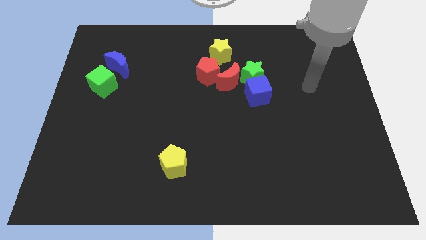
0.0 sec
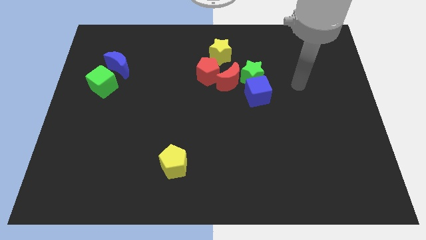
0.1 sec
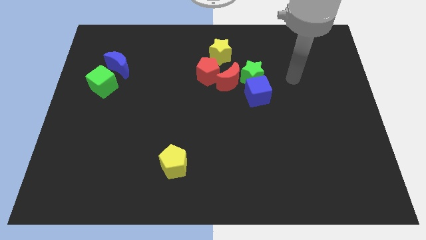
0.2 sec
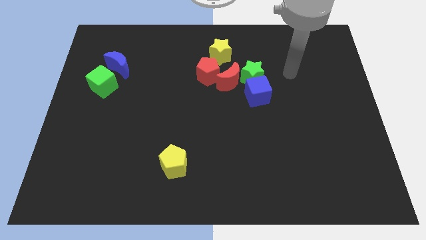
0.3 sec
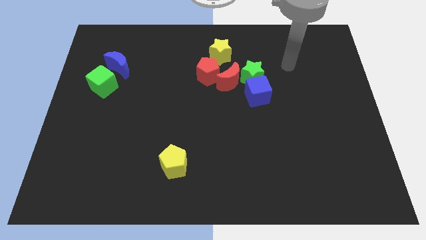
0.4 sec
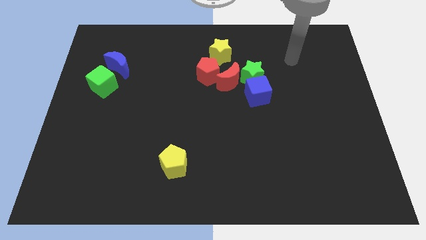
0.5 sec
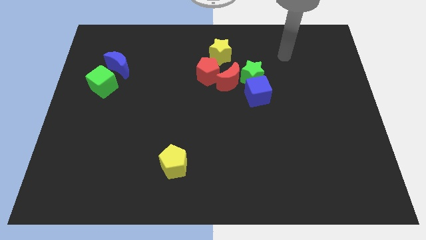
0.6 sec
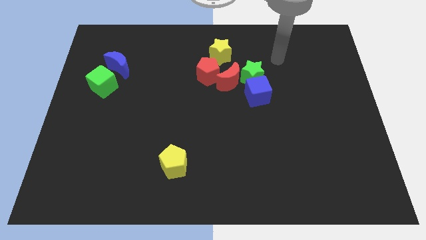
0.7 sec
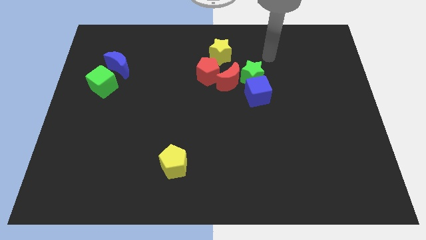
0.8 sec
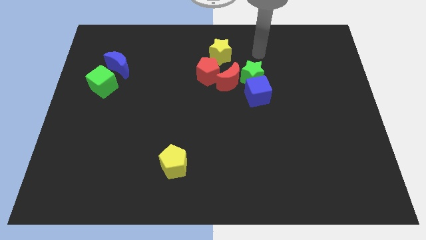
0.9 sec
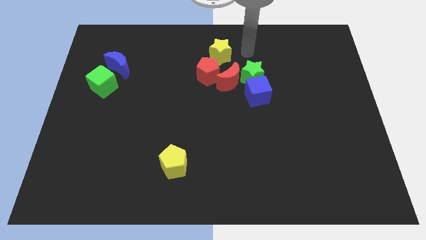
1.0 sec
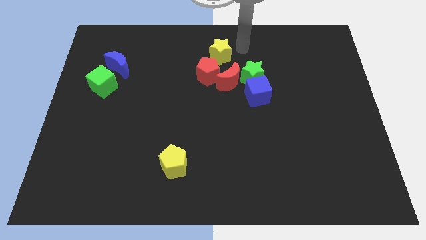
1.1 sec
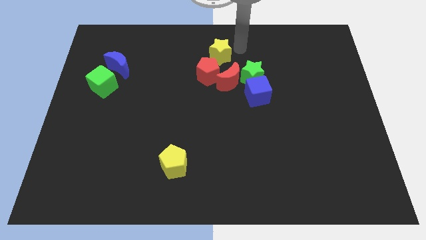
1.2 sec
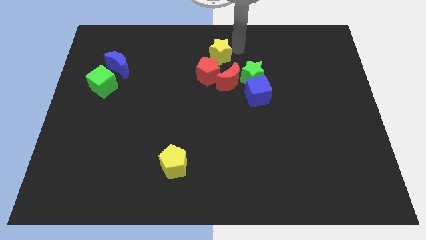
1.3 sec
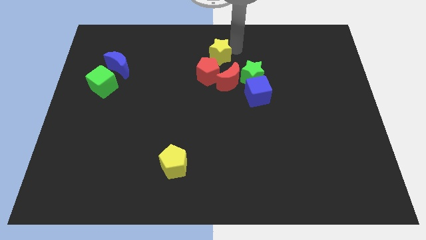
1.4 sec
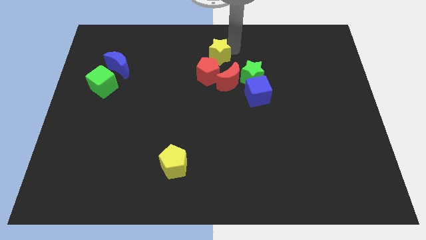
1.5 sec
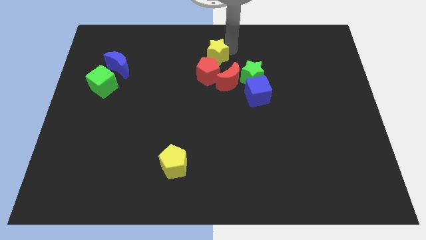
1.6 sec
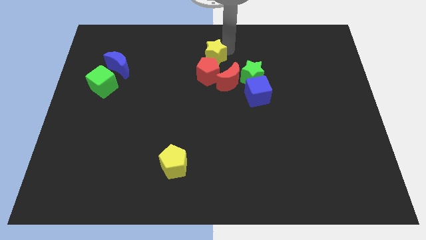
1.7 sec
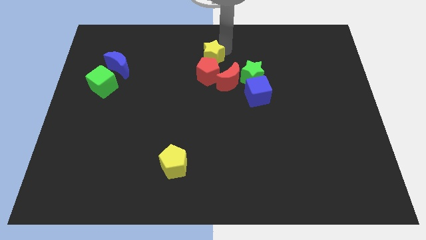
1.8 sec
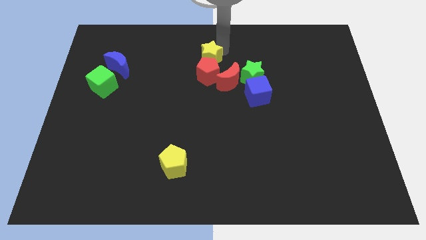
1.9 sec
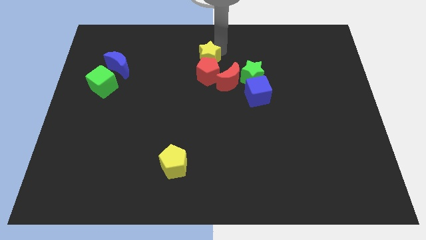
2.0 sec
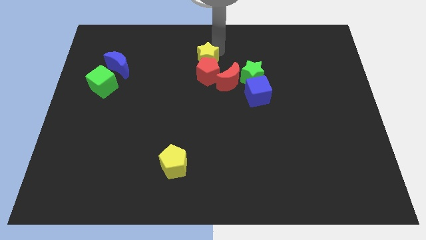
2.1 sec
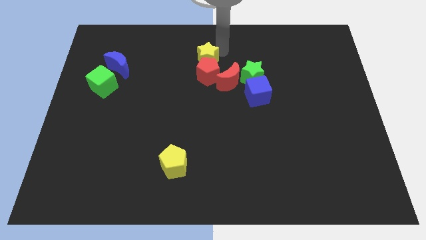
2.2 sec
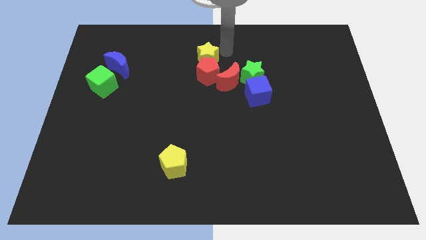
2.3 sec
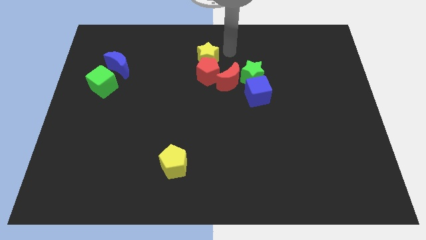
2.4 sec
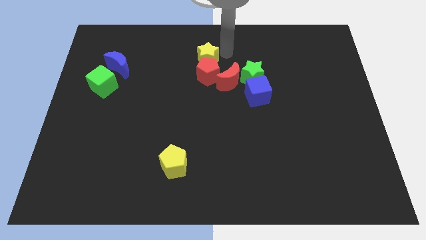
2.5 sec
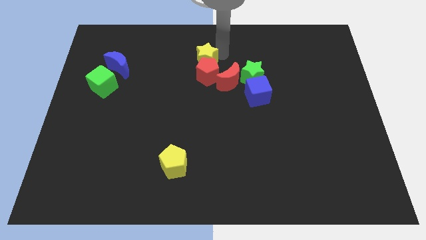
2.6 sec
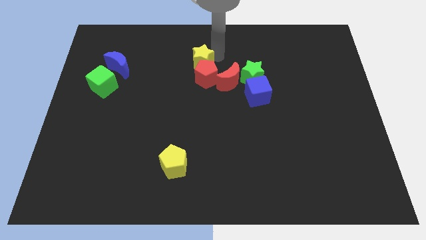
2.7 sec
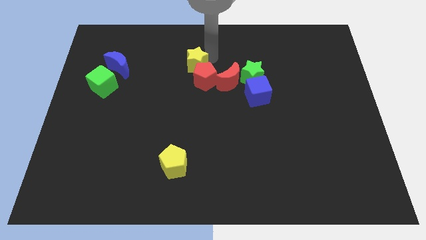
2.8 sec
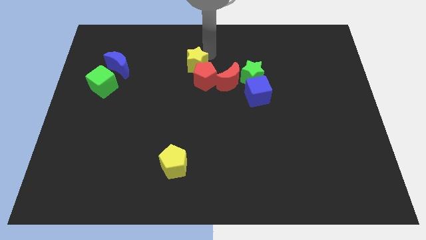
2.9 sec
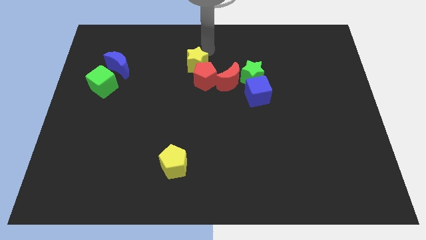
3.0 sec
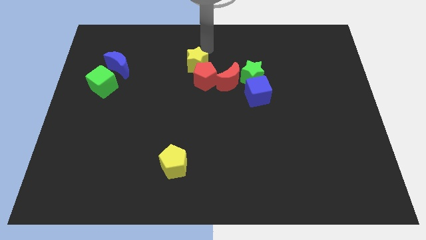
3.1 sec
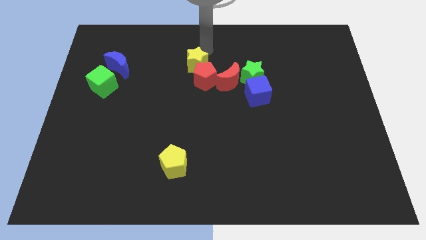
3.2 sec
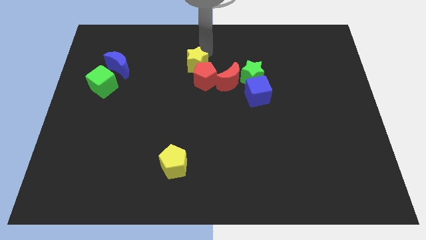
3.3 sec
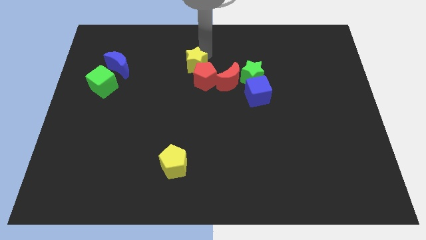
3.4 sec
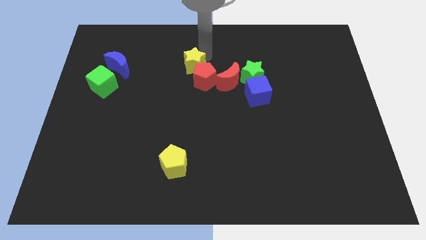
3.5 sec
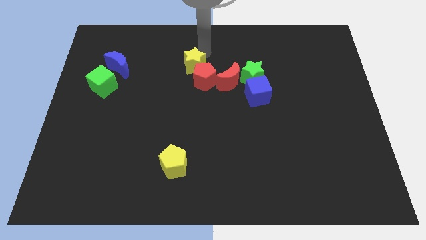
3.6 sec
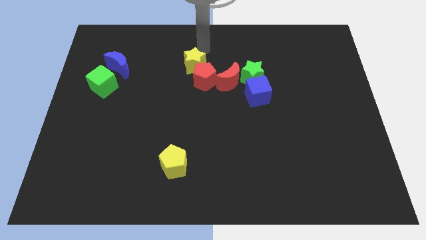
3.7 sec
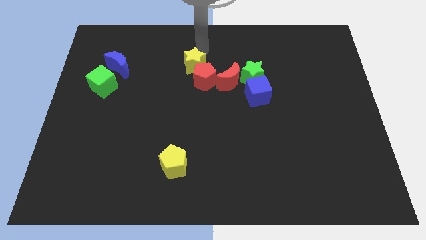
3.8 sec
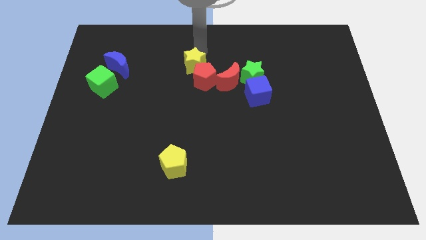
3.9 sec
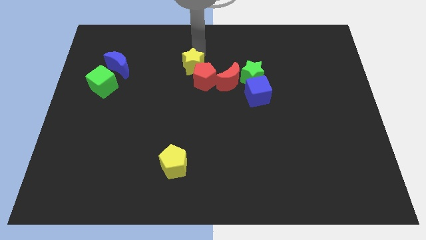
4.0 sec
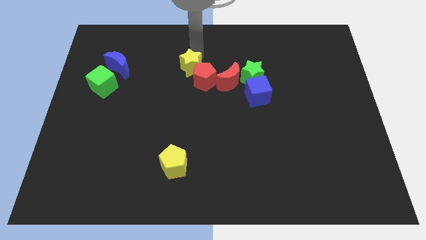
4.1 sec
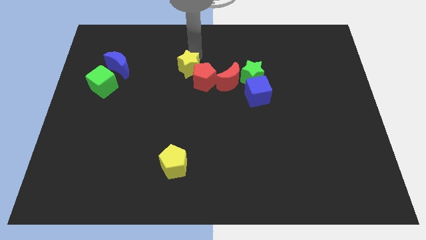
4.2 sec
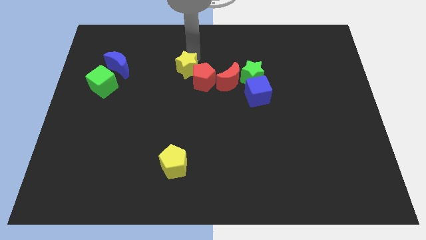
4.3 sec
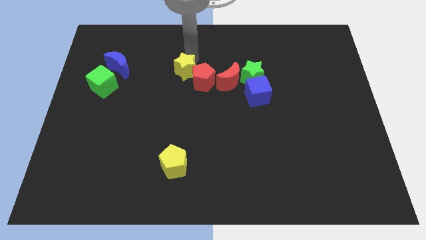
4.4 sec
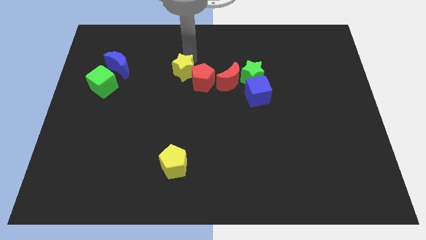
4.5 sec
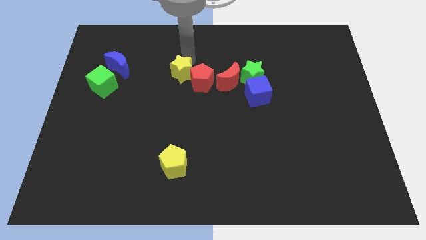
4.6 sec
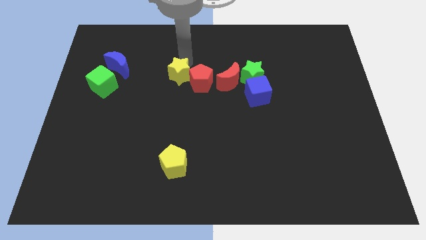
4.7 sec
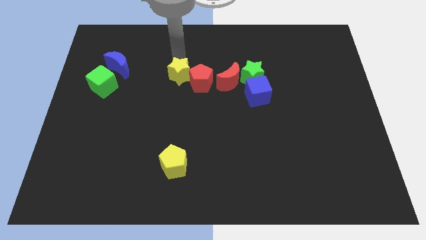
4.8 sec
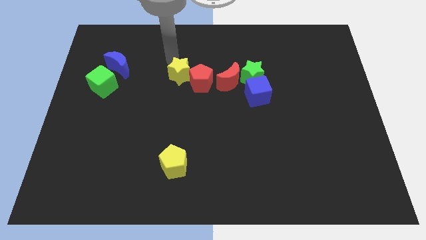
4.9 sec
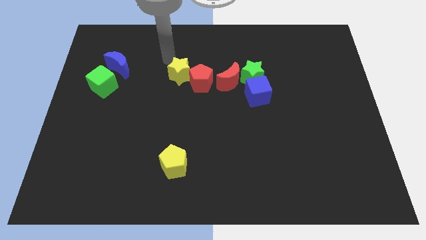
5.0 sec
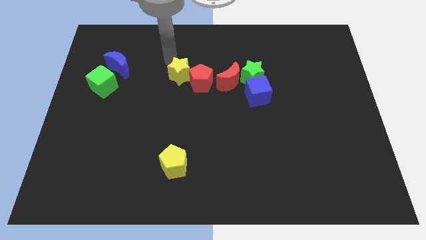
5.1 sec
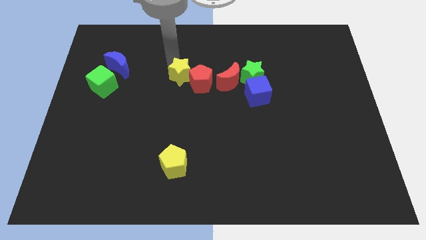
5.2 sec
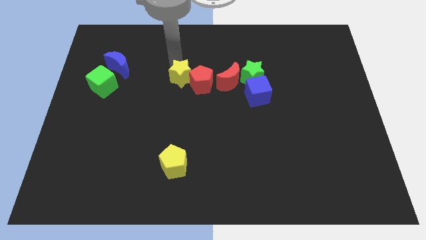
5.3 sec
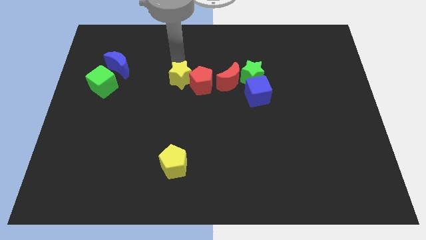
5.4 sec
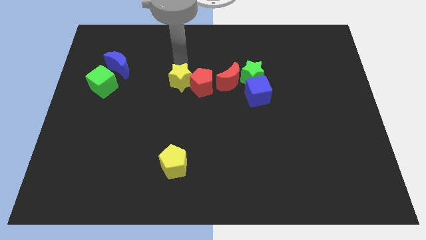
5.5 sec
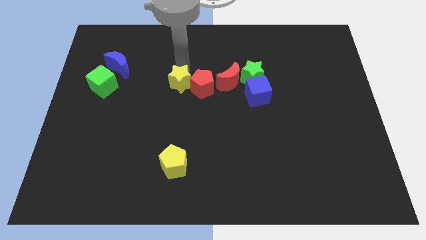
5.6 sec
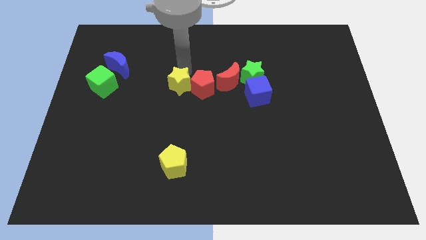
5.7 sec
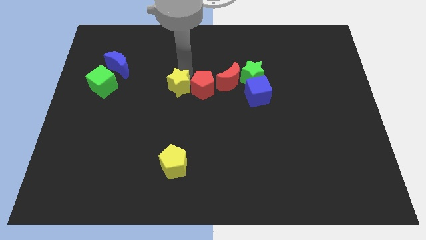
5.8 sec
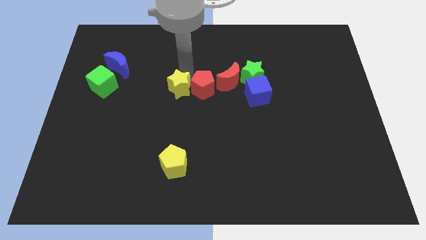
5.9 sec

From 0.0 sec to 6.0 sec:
slide the yellow star a bit down

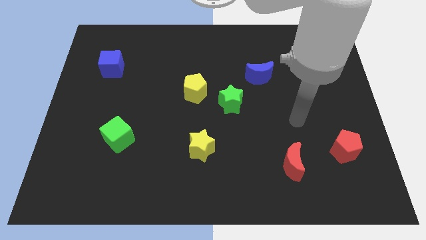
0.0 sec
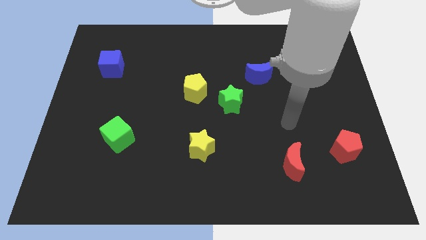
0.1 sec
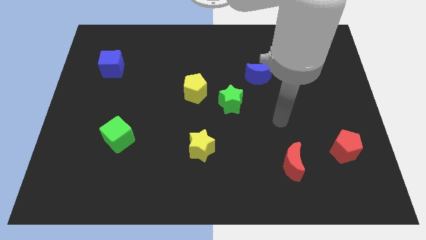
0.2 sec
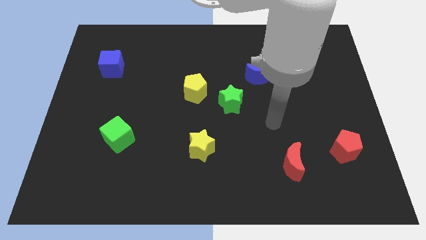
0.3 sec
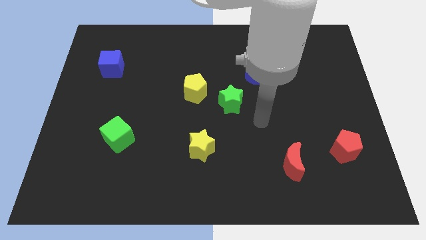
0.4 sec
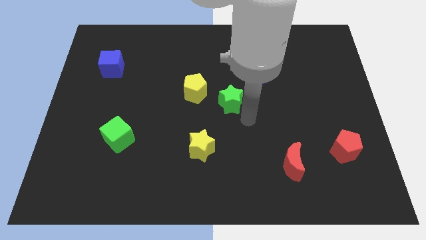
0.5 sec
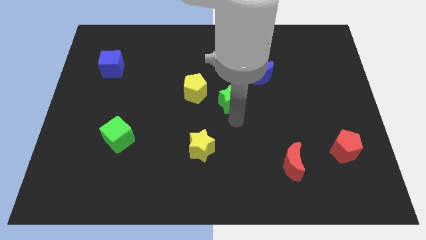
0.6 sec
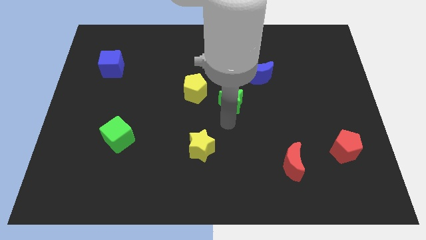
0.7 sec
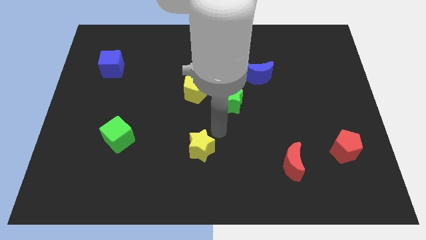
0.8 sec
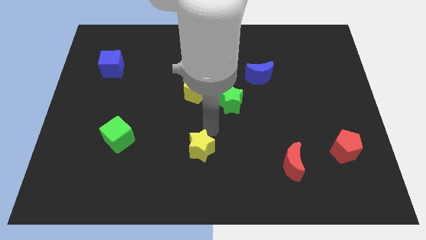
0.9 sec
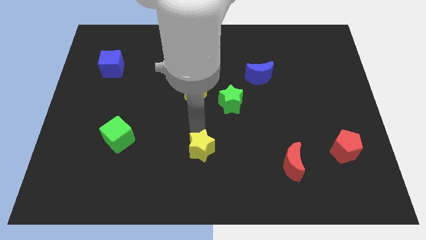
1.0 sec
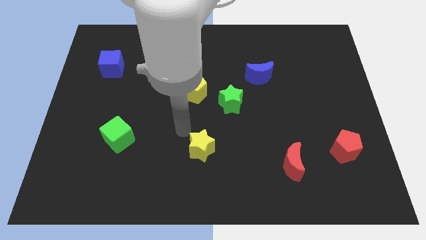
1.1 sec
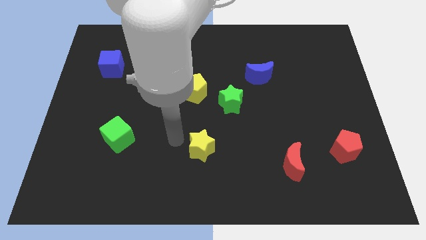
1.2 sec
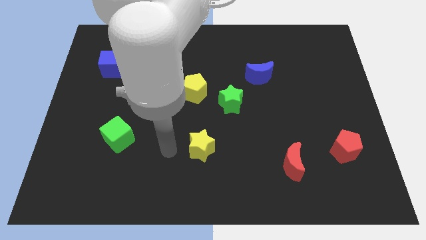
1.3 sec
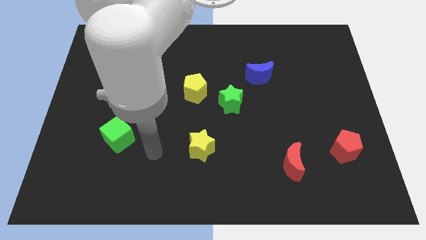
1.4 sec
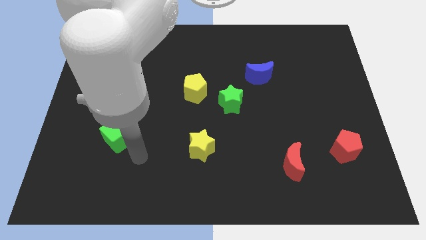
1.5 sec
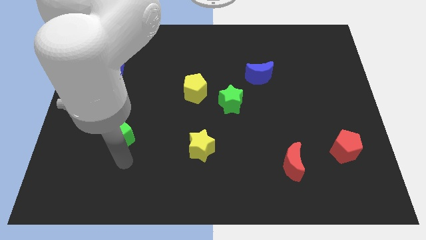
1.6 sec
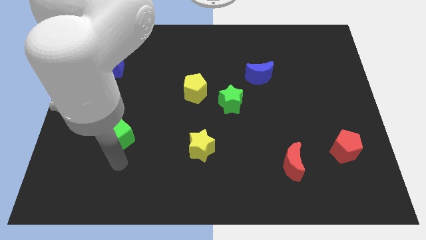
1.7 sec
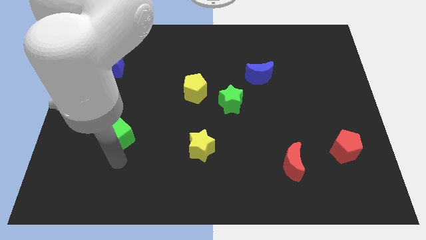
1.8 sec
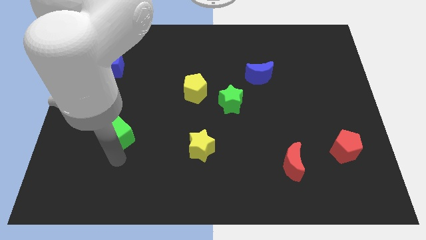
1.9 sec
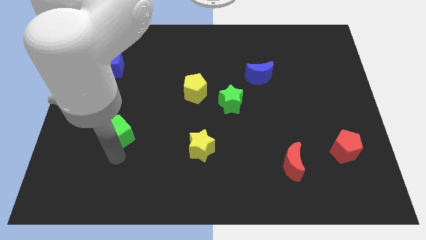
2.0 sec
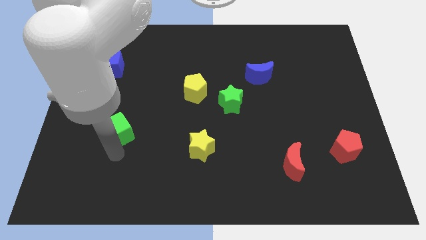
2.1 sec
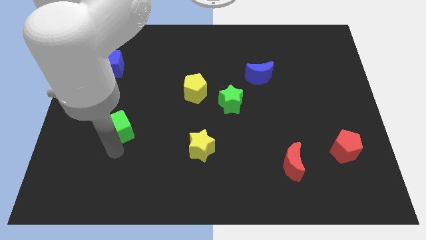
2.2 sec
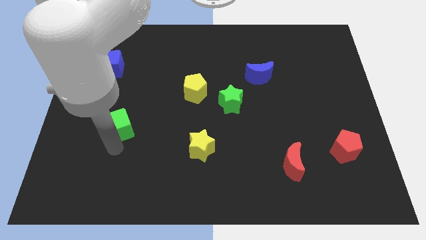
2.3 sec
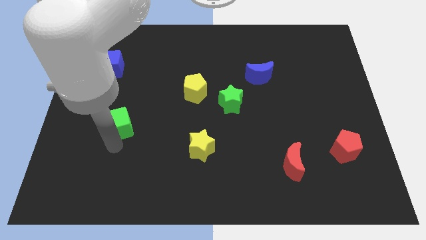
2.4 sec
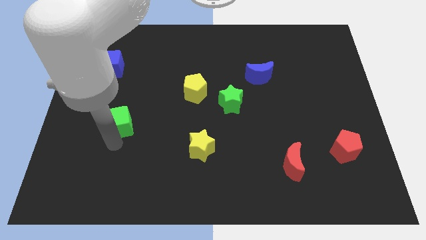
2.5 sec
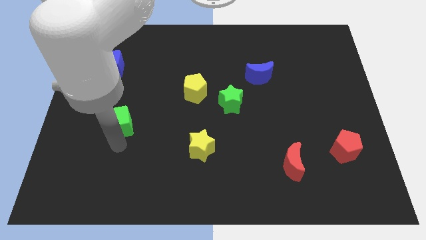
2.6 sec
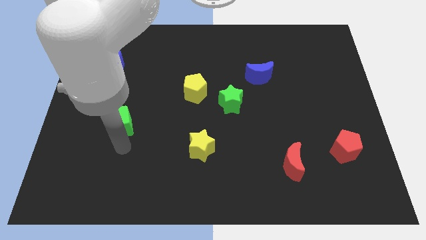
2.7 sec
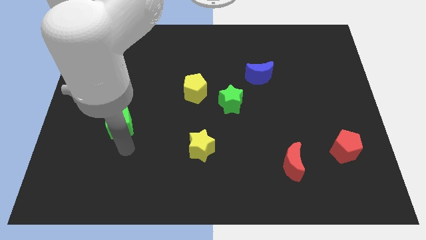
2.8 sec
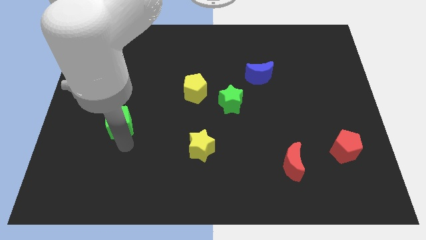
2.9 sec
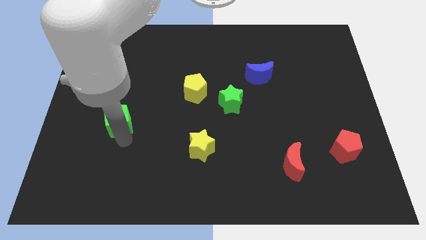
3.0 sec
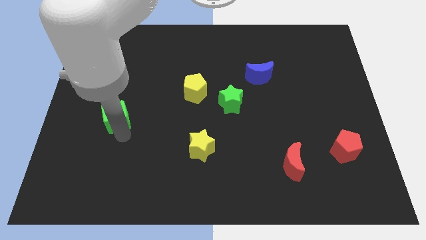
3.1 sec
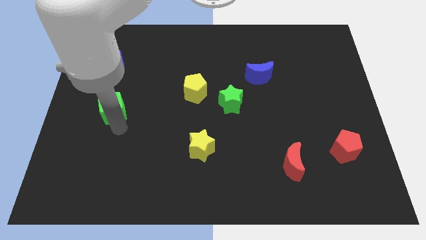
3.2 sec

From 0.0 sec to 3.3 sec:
move the green cube slightly upwards
